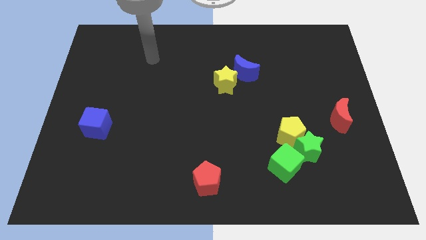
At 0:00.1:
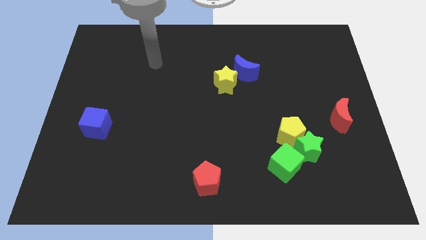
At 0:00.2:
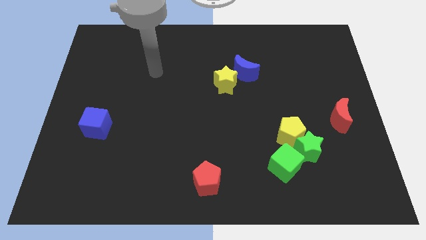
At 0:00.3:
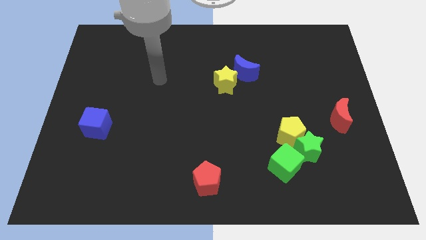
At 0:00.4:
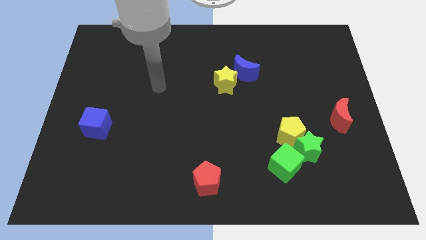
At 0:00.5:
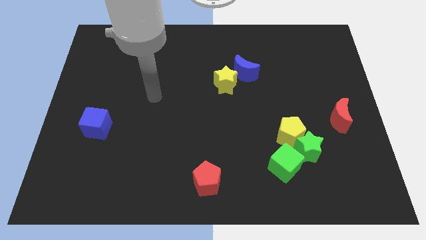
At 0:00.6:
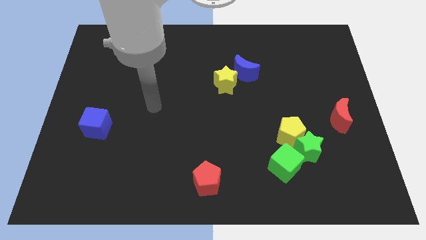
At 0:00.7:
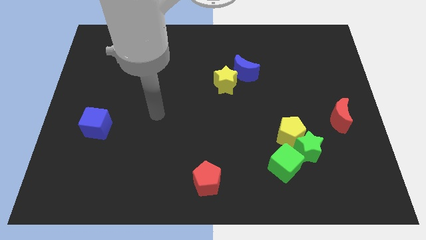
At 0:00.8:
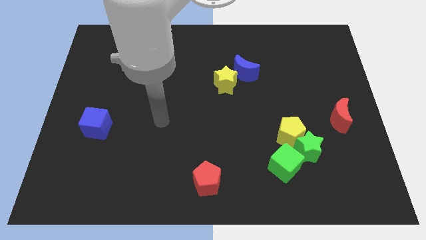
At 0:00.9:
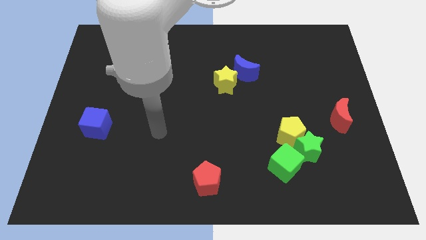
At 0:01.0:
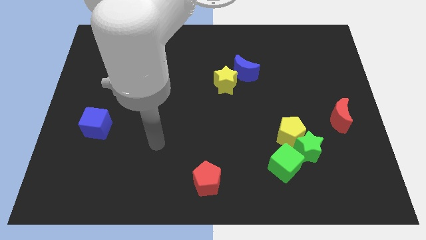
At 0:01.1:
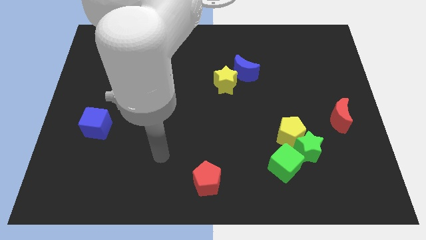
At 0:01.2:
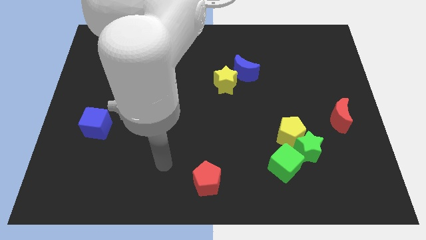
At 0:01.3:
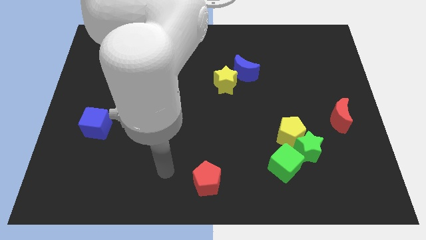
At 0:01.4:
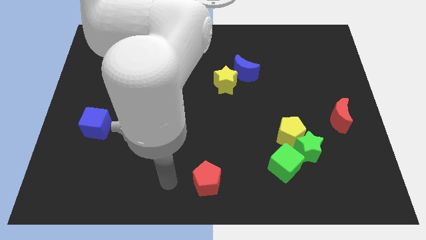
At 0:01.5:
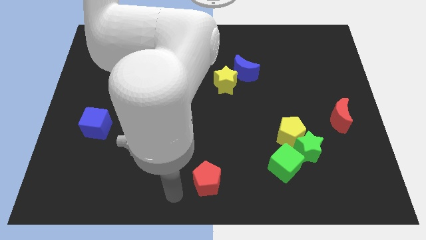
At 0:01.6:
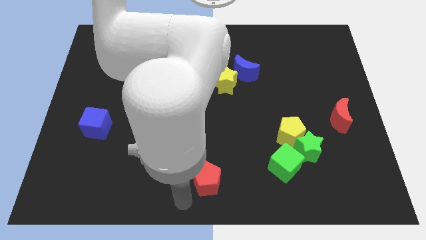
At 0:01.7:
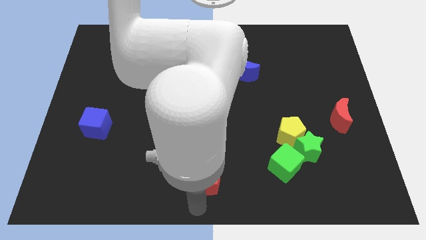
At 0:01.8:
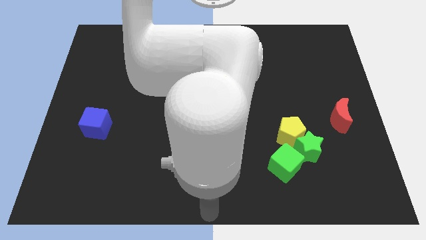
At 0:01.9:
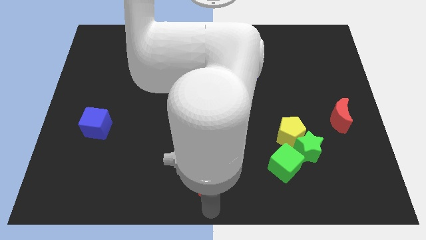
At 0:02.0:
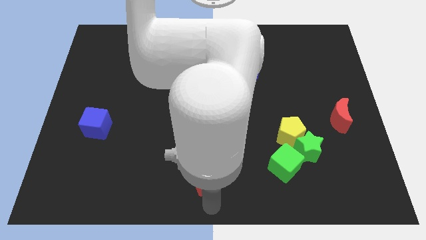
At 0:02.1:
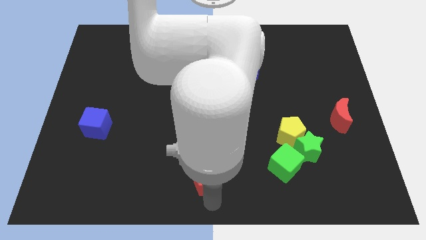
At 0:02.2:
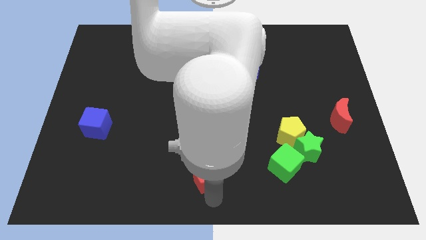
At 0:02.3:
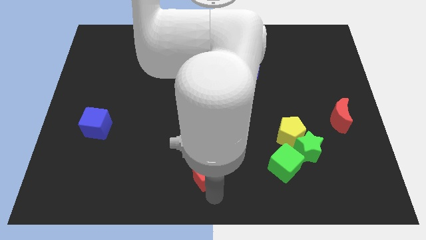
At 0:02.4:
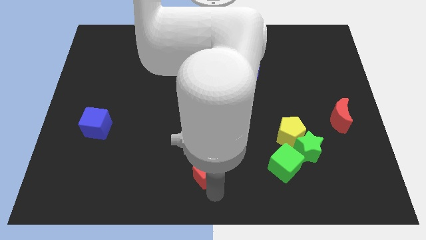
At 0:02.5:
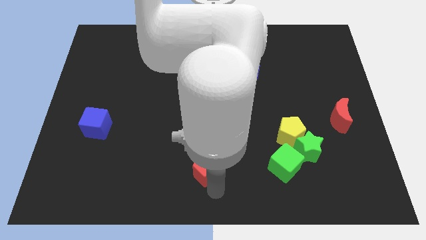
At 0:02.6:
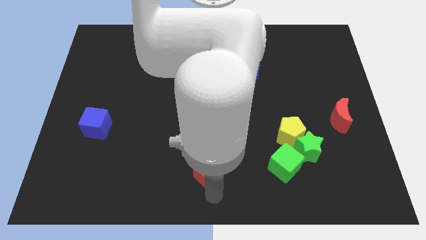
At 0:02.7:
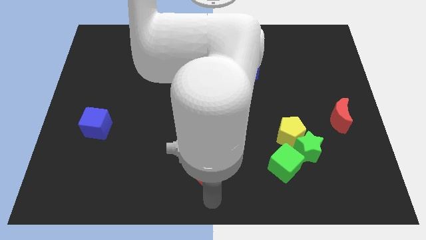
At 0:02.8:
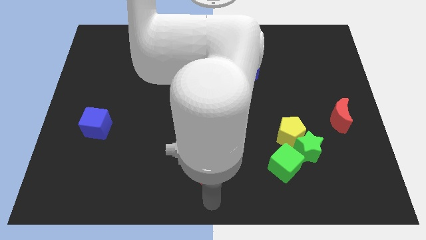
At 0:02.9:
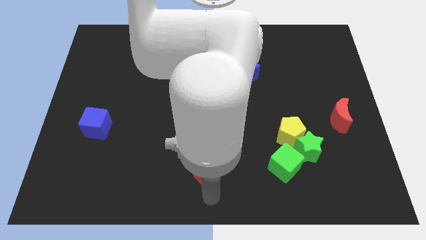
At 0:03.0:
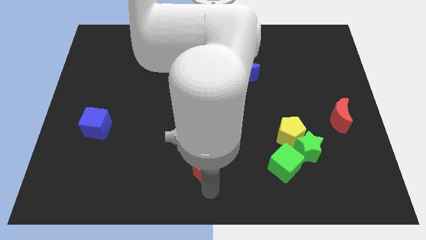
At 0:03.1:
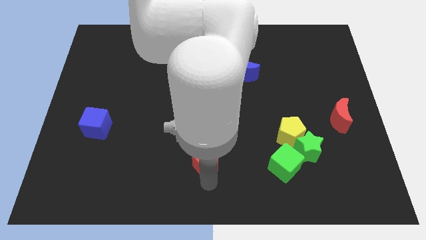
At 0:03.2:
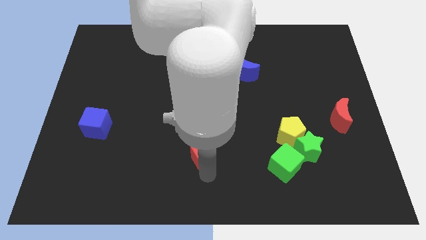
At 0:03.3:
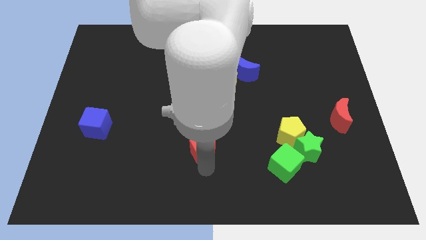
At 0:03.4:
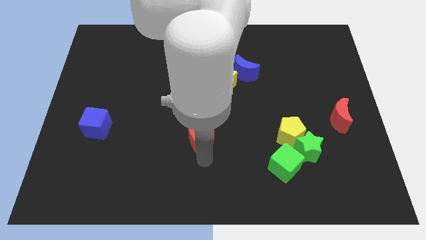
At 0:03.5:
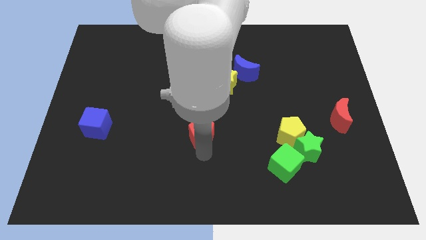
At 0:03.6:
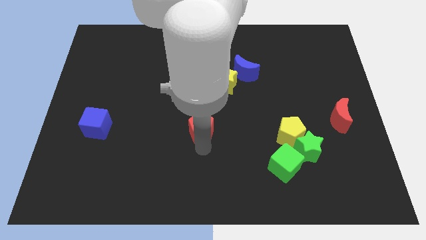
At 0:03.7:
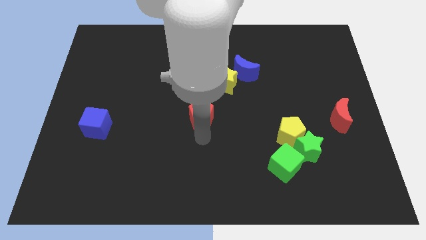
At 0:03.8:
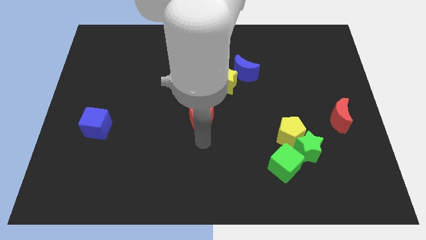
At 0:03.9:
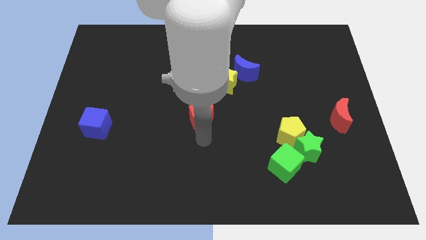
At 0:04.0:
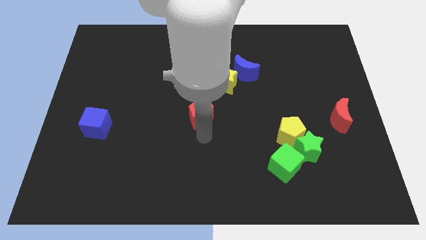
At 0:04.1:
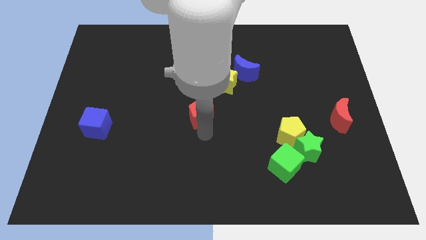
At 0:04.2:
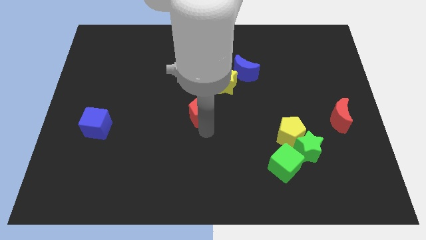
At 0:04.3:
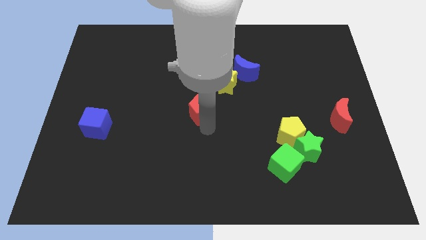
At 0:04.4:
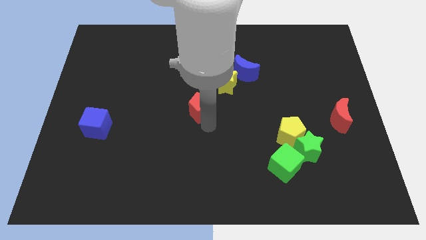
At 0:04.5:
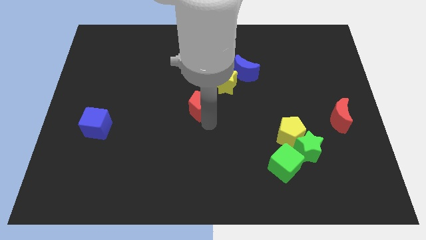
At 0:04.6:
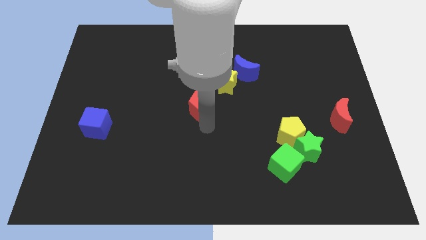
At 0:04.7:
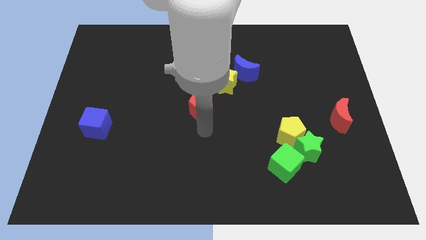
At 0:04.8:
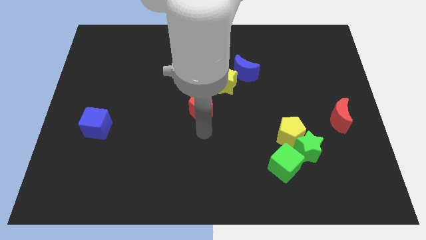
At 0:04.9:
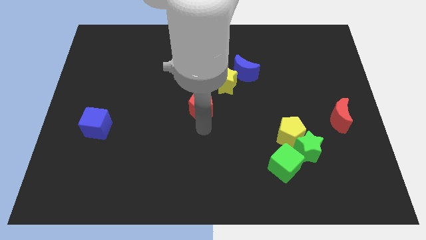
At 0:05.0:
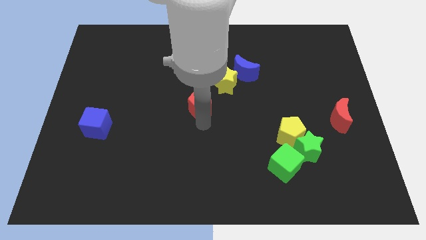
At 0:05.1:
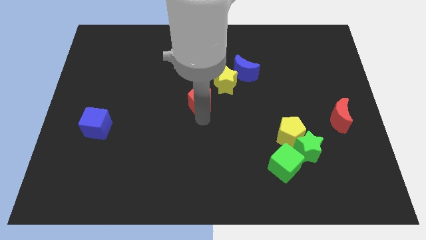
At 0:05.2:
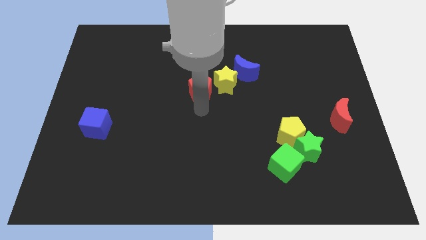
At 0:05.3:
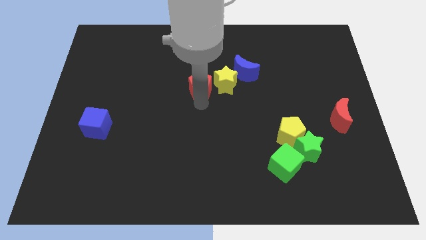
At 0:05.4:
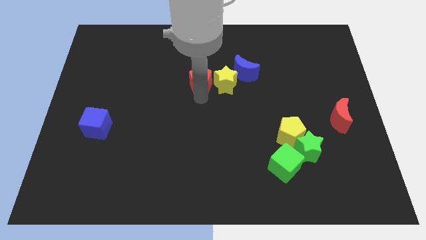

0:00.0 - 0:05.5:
slide the red pentagon to the top left side of the yellow star

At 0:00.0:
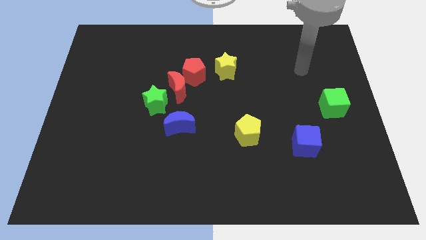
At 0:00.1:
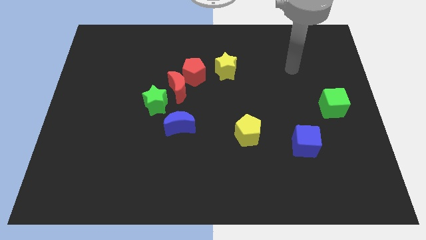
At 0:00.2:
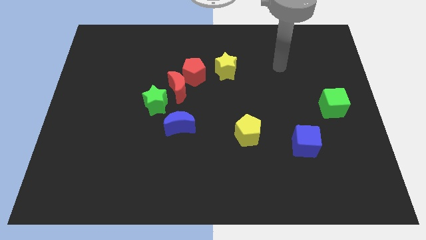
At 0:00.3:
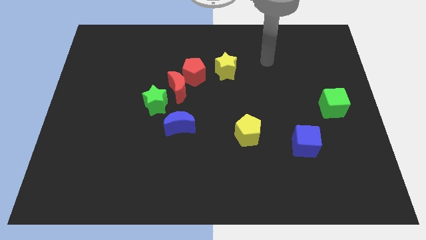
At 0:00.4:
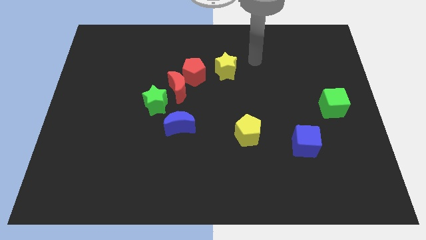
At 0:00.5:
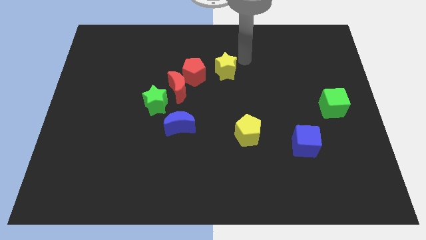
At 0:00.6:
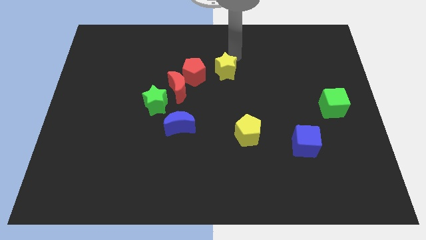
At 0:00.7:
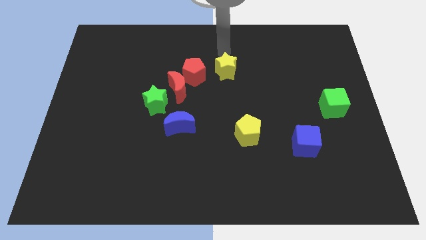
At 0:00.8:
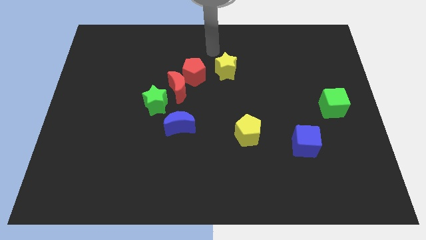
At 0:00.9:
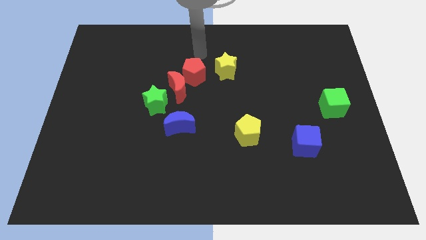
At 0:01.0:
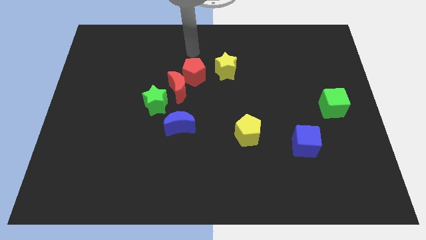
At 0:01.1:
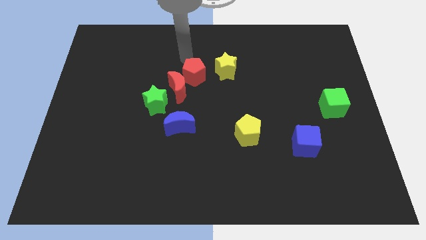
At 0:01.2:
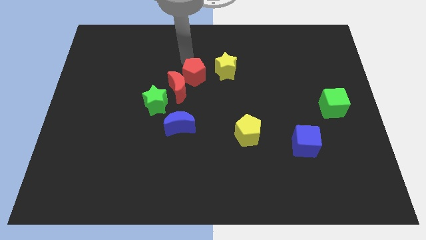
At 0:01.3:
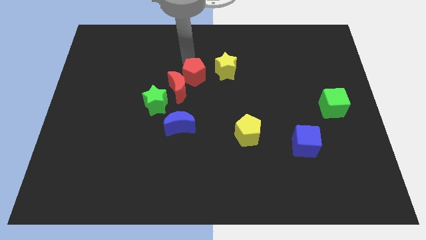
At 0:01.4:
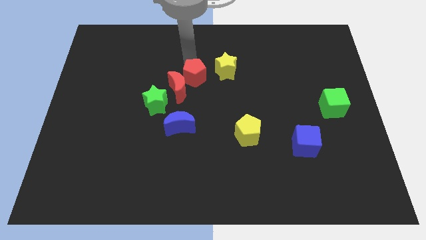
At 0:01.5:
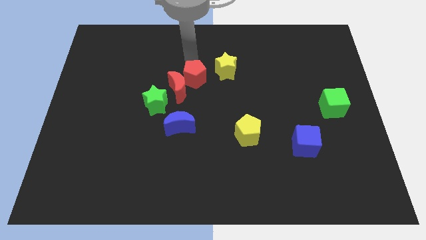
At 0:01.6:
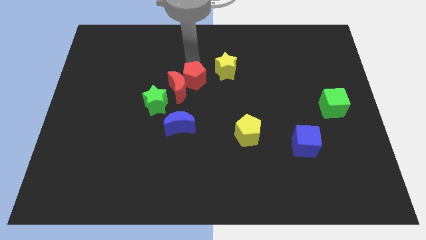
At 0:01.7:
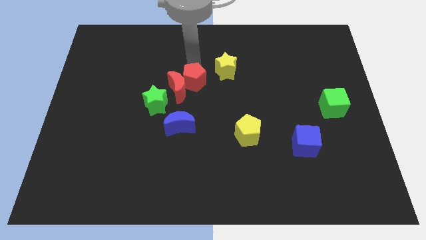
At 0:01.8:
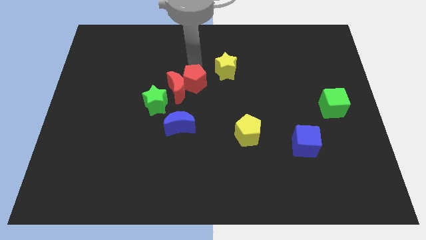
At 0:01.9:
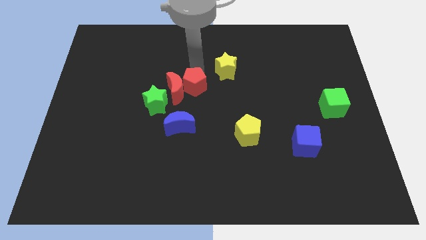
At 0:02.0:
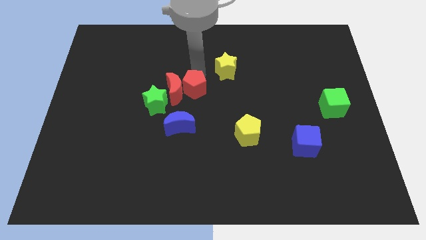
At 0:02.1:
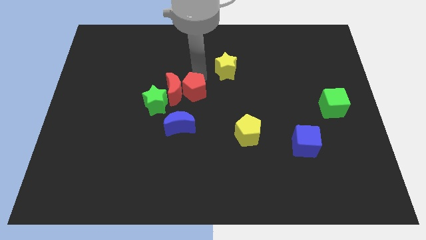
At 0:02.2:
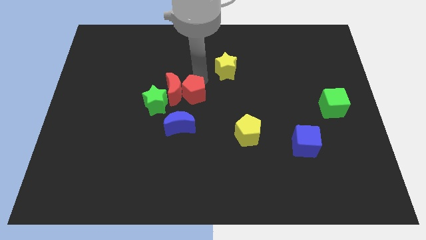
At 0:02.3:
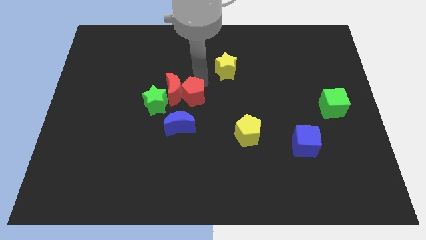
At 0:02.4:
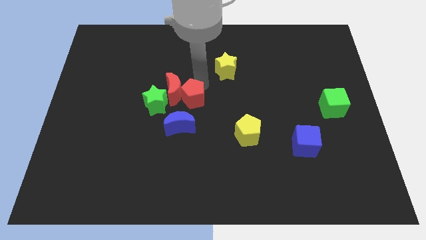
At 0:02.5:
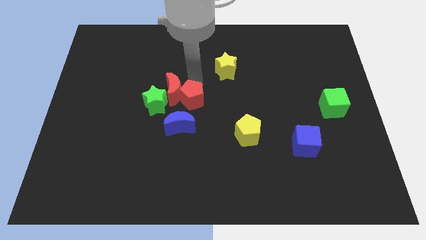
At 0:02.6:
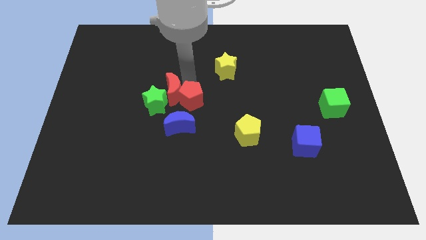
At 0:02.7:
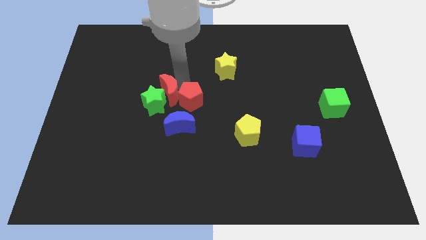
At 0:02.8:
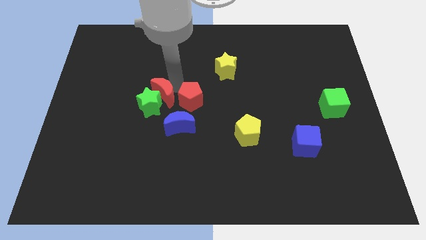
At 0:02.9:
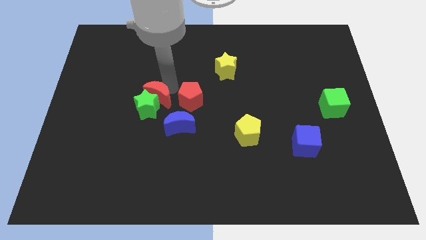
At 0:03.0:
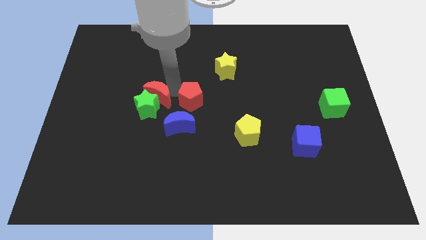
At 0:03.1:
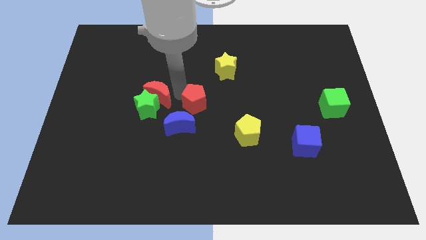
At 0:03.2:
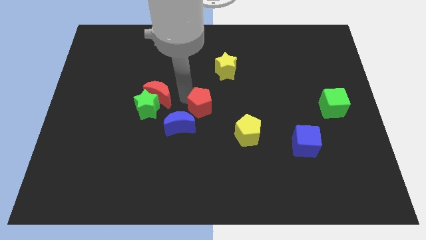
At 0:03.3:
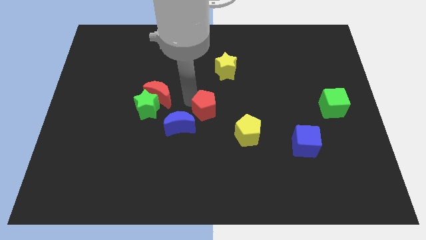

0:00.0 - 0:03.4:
move the red pentagon to the right side of the blue moon
